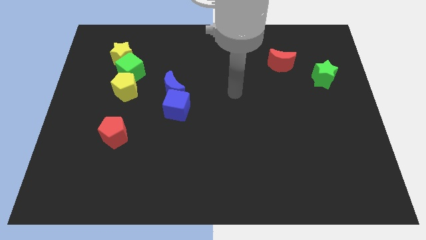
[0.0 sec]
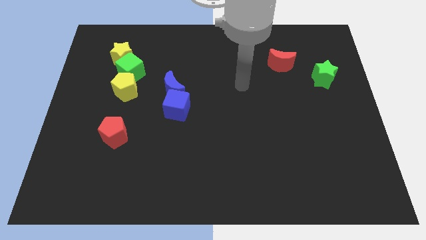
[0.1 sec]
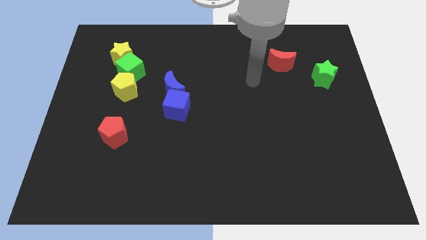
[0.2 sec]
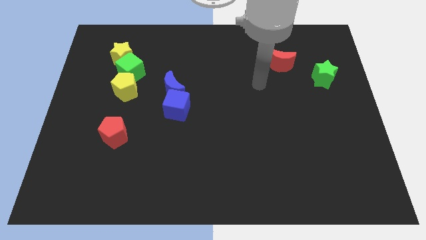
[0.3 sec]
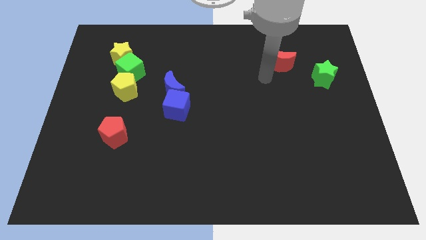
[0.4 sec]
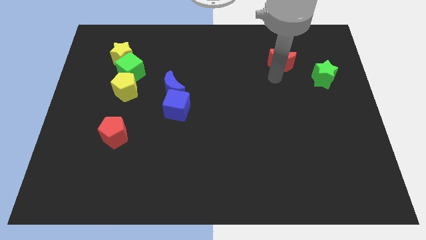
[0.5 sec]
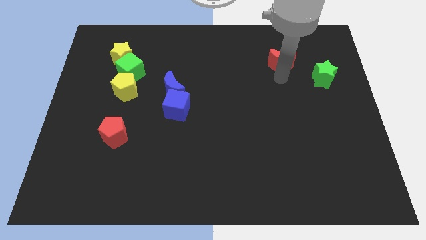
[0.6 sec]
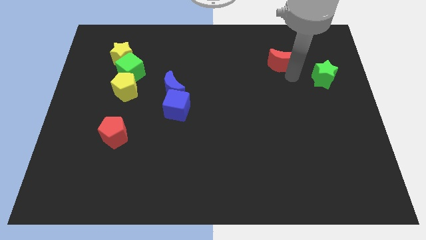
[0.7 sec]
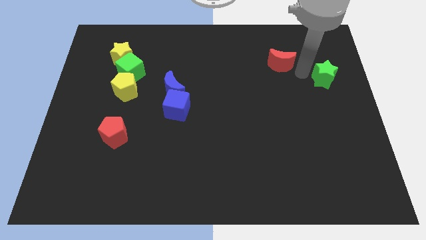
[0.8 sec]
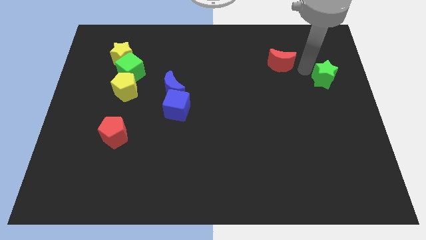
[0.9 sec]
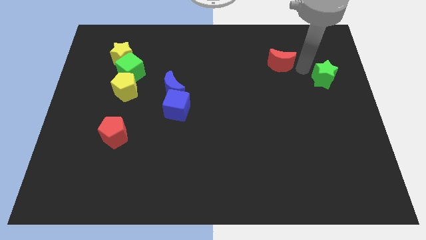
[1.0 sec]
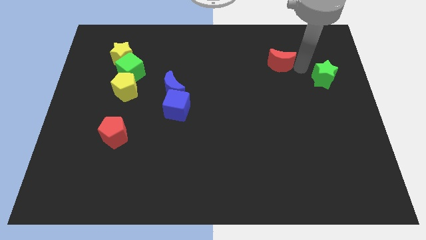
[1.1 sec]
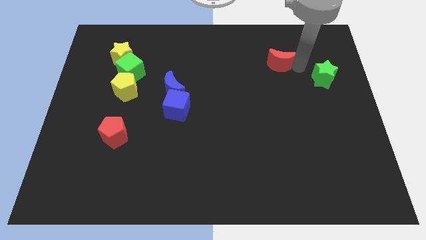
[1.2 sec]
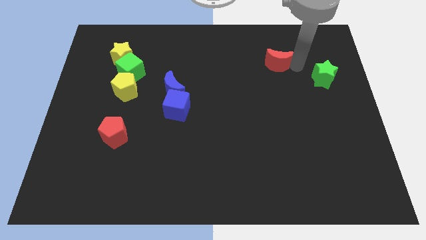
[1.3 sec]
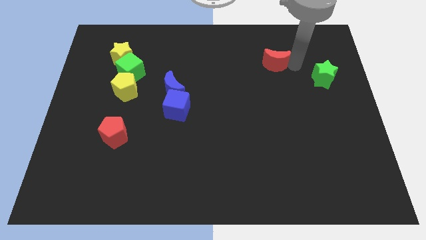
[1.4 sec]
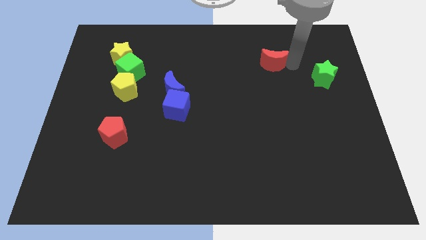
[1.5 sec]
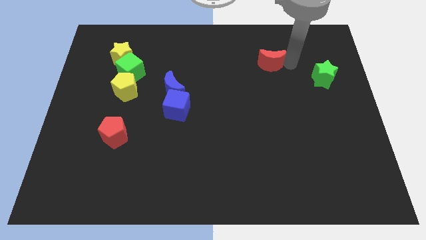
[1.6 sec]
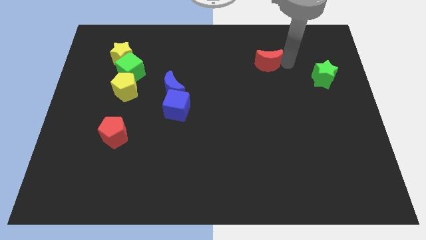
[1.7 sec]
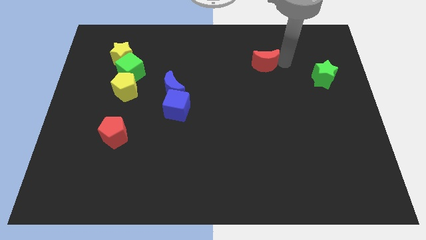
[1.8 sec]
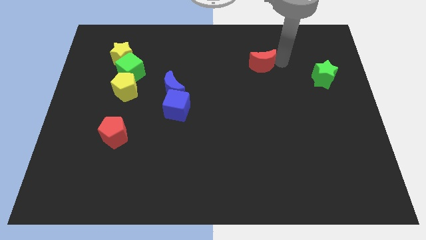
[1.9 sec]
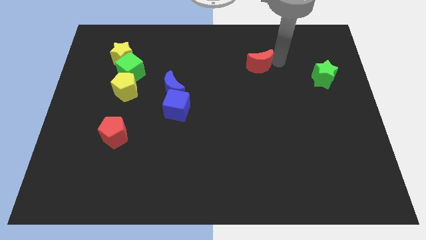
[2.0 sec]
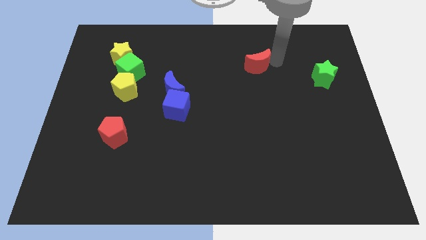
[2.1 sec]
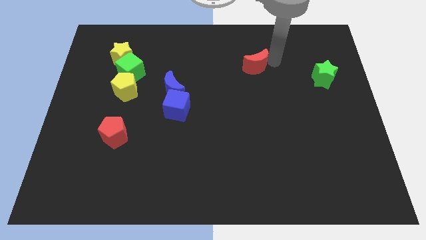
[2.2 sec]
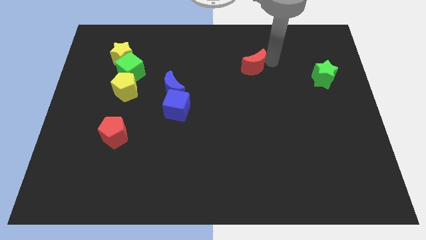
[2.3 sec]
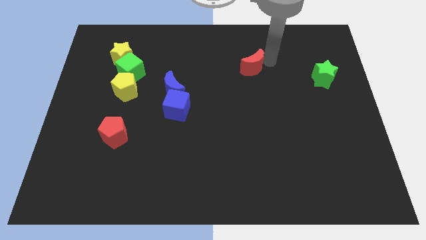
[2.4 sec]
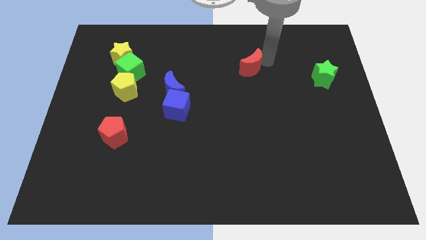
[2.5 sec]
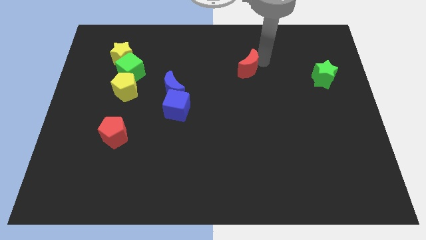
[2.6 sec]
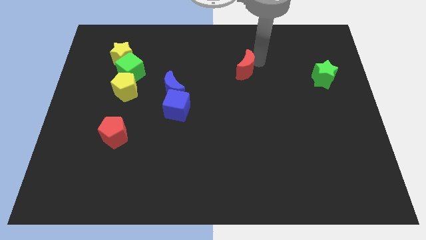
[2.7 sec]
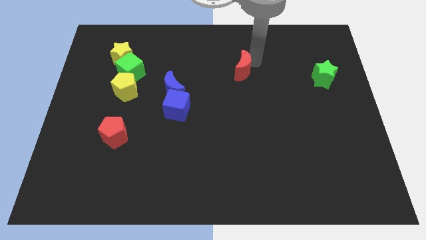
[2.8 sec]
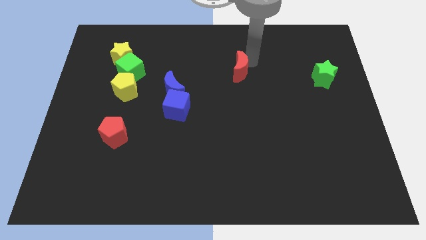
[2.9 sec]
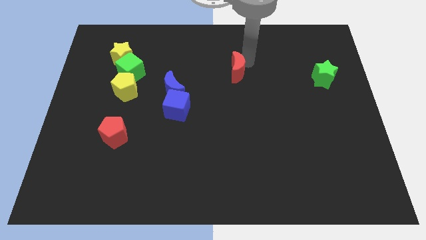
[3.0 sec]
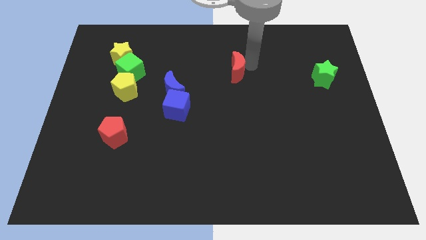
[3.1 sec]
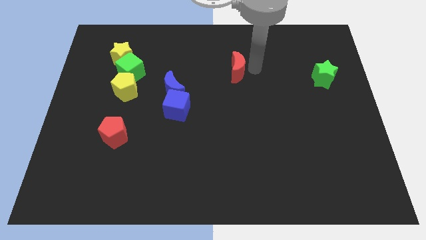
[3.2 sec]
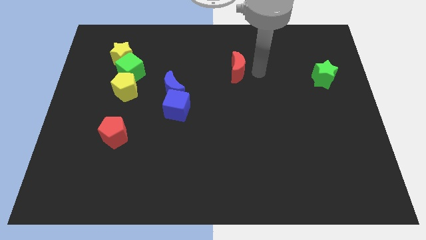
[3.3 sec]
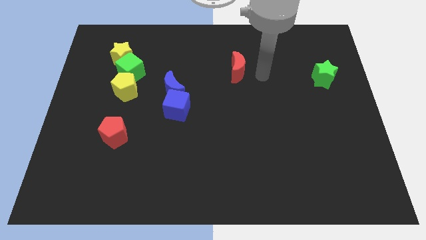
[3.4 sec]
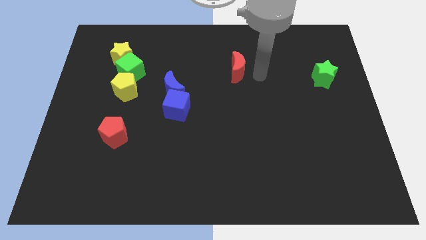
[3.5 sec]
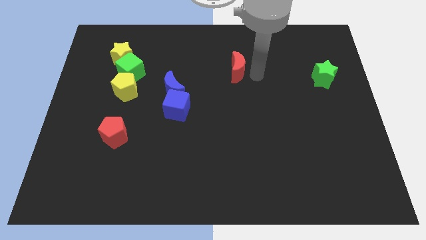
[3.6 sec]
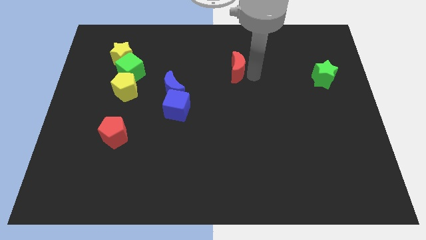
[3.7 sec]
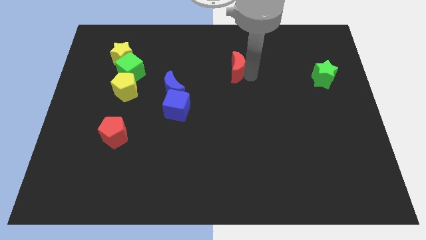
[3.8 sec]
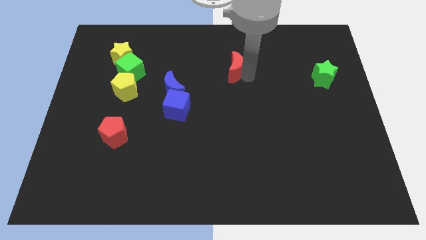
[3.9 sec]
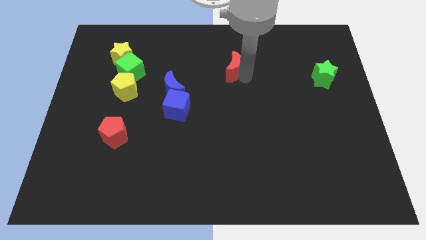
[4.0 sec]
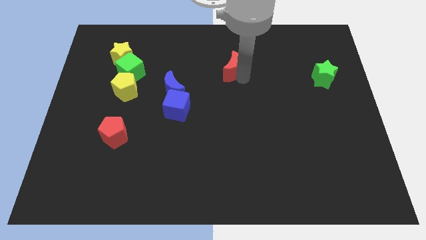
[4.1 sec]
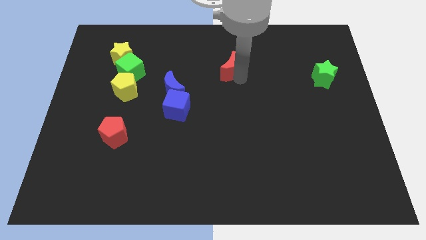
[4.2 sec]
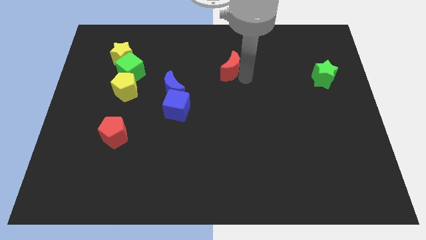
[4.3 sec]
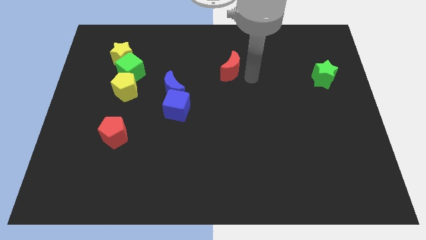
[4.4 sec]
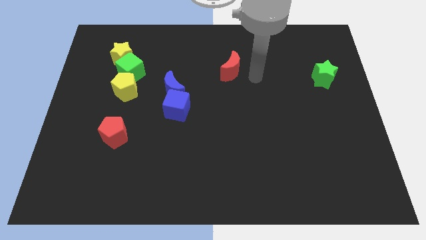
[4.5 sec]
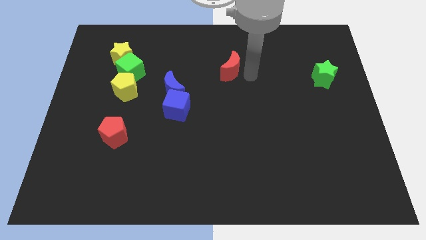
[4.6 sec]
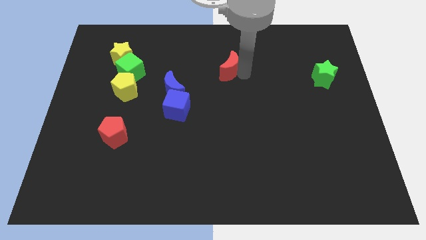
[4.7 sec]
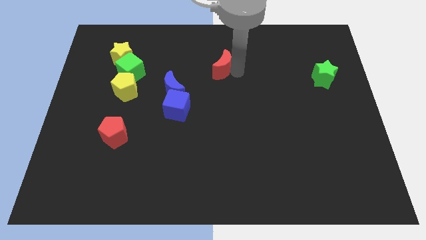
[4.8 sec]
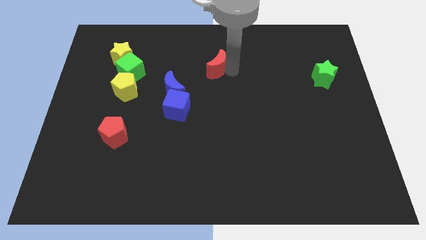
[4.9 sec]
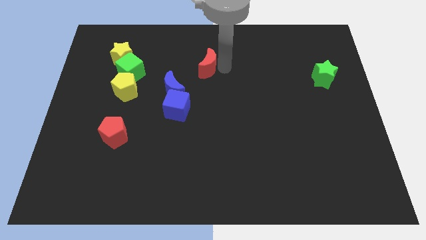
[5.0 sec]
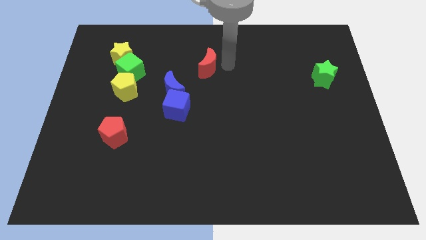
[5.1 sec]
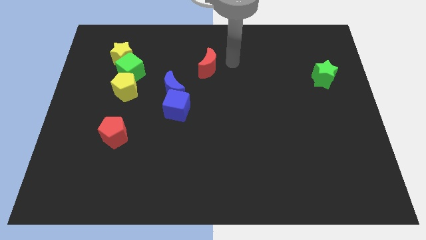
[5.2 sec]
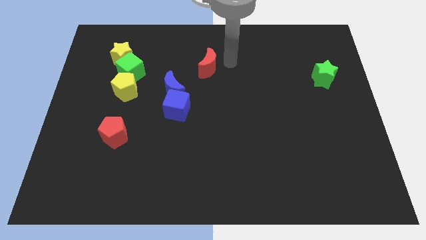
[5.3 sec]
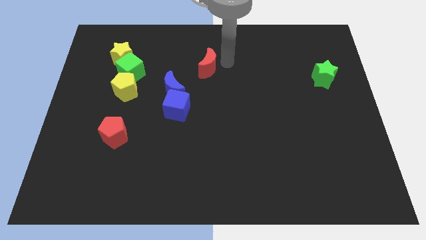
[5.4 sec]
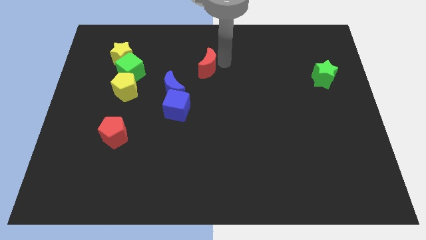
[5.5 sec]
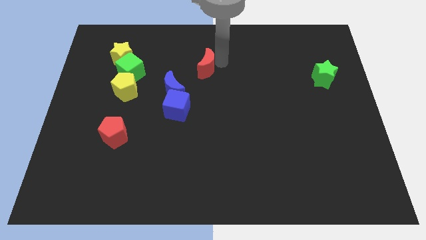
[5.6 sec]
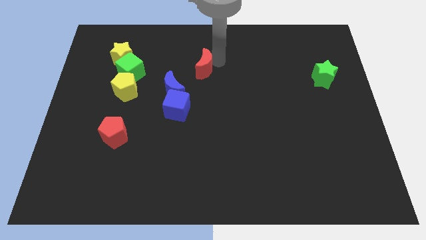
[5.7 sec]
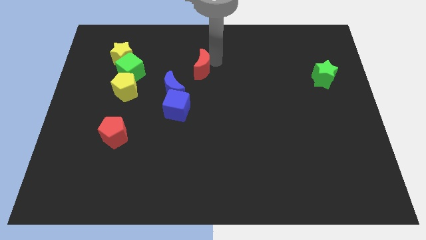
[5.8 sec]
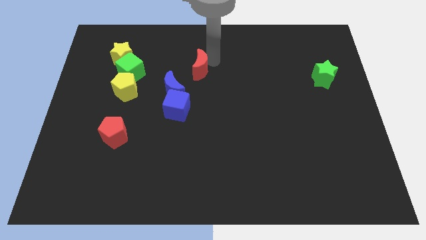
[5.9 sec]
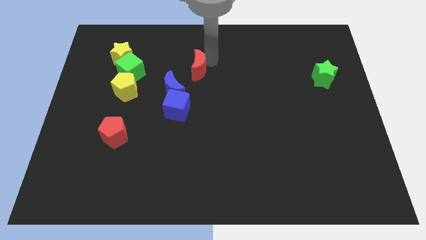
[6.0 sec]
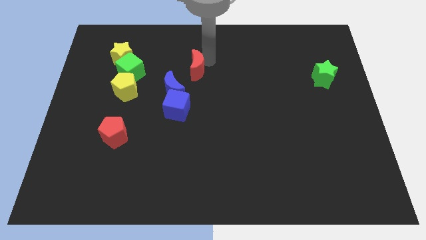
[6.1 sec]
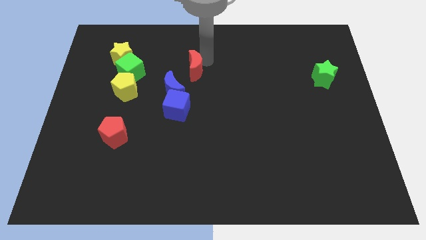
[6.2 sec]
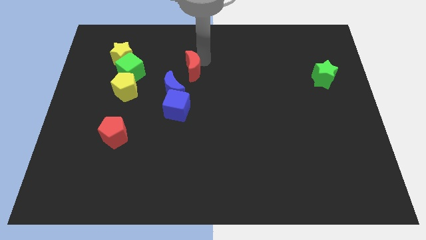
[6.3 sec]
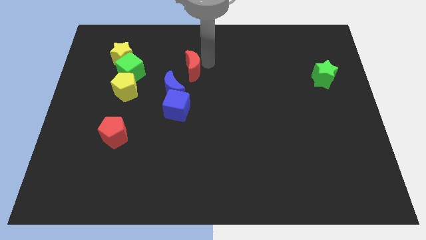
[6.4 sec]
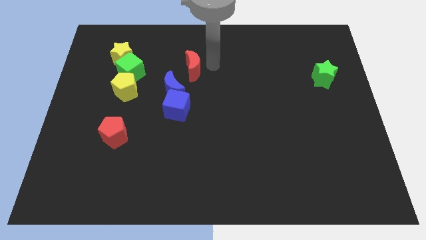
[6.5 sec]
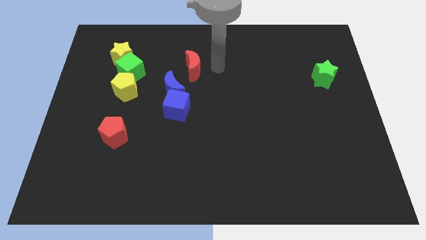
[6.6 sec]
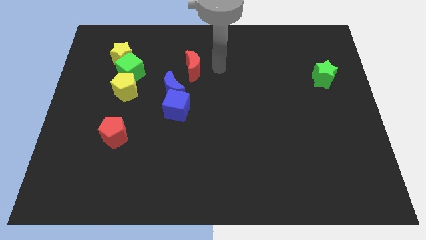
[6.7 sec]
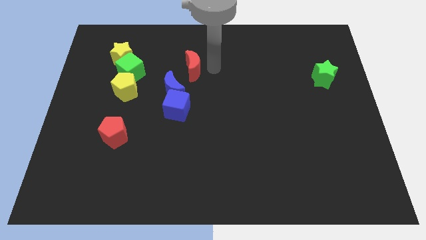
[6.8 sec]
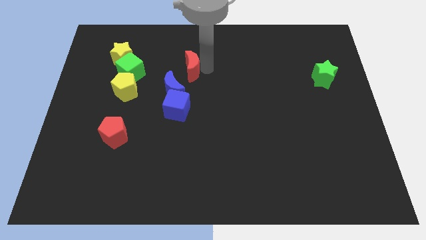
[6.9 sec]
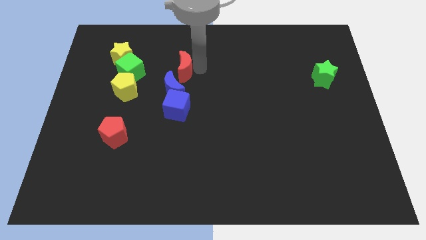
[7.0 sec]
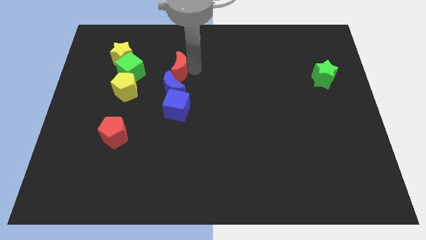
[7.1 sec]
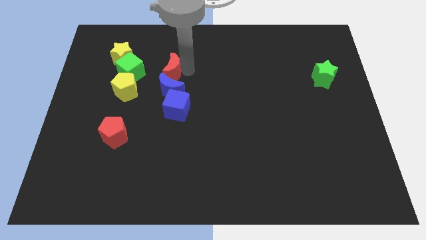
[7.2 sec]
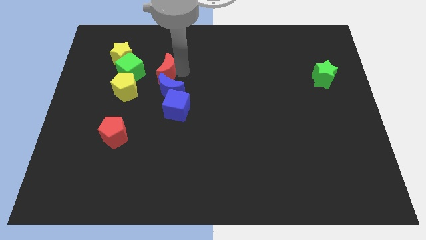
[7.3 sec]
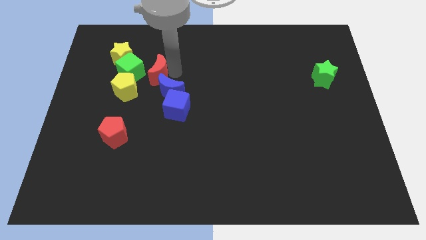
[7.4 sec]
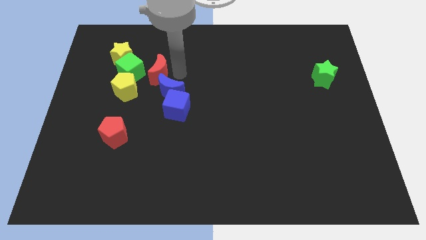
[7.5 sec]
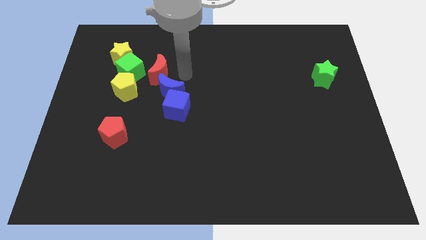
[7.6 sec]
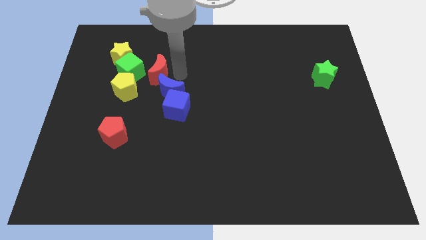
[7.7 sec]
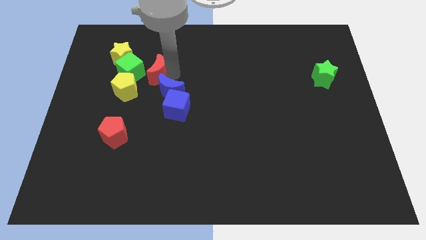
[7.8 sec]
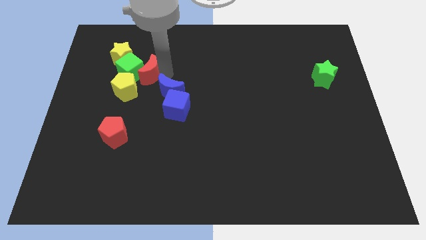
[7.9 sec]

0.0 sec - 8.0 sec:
slide the red moon next to the green cube
